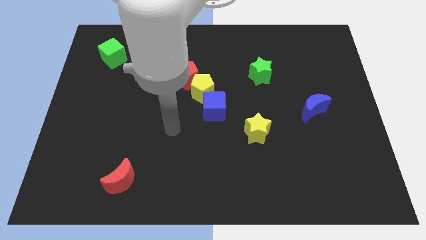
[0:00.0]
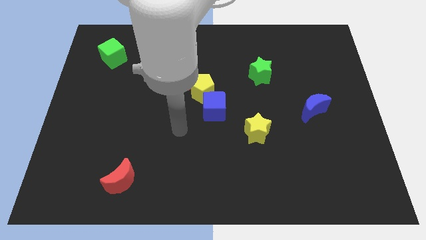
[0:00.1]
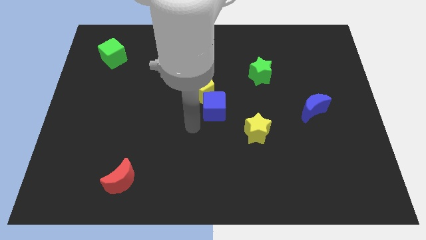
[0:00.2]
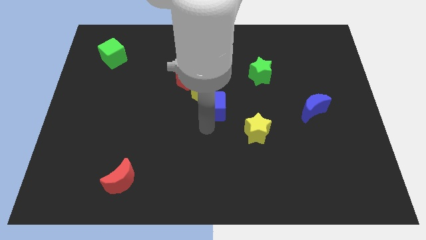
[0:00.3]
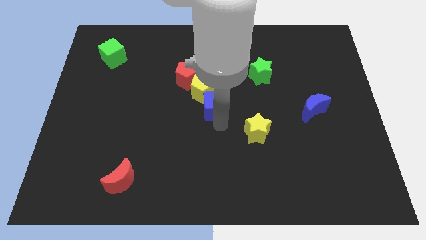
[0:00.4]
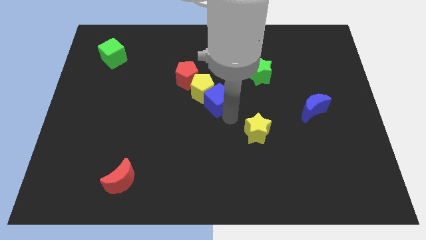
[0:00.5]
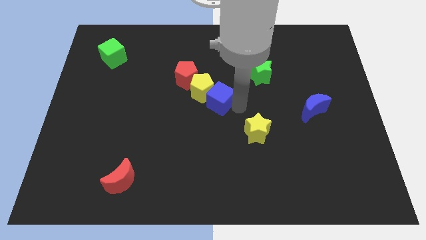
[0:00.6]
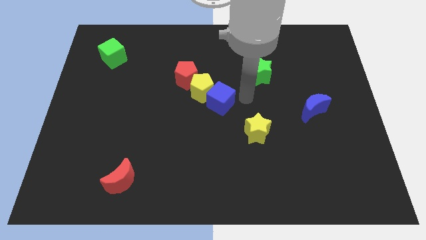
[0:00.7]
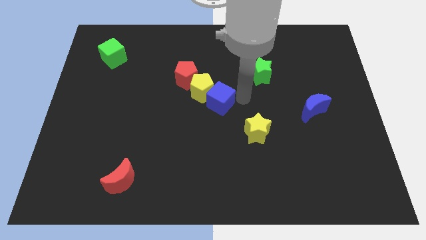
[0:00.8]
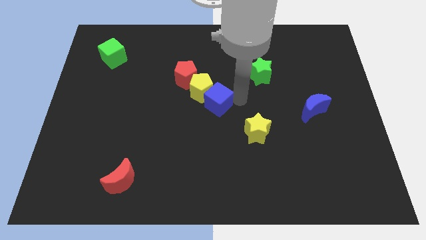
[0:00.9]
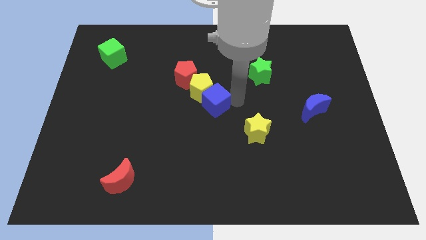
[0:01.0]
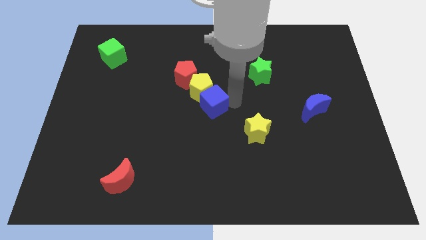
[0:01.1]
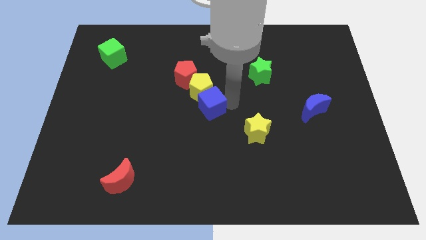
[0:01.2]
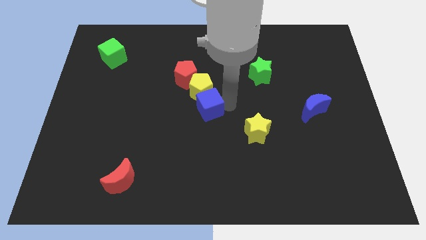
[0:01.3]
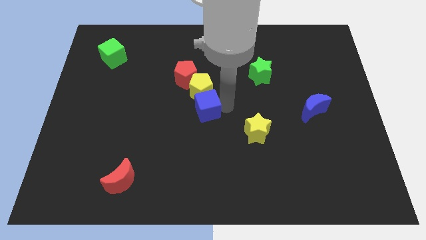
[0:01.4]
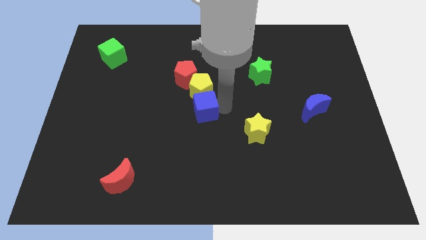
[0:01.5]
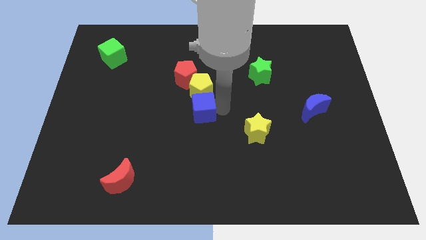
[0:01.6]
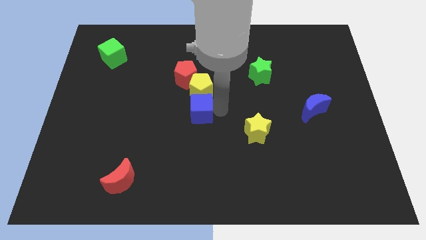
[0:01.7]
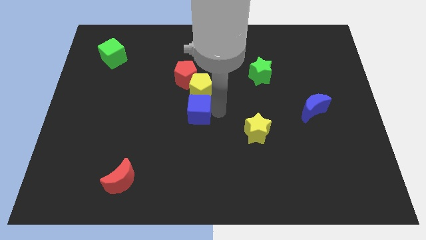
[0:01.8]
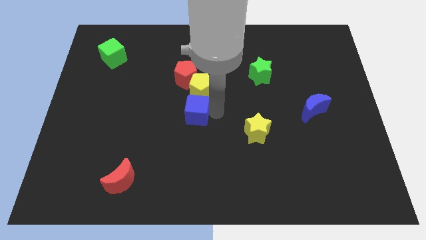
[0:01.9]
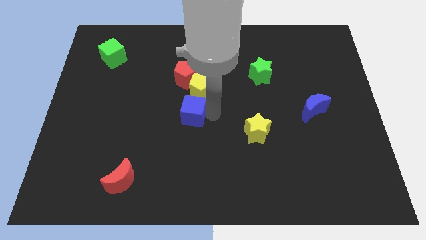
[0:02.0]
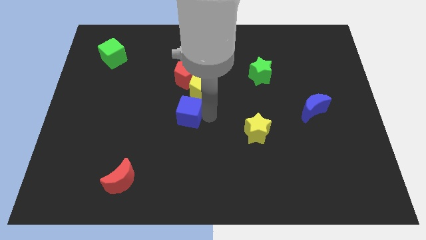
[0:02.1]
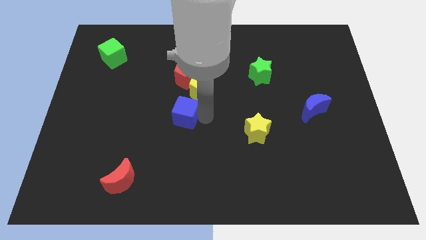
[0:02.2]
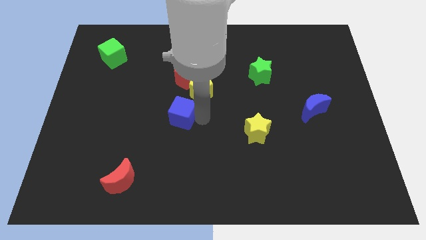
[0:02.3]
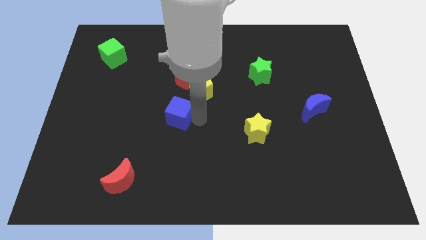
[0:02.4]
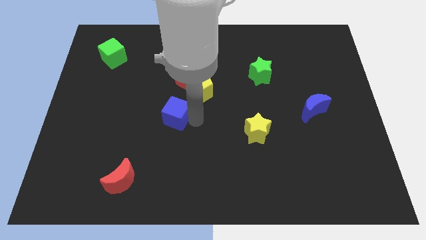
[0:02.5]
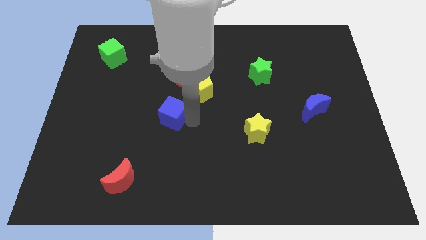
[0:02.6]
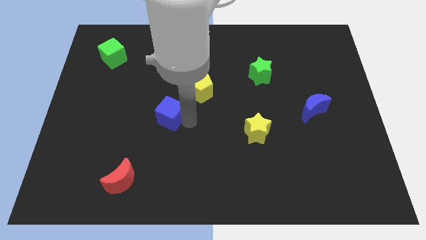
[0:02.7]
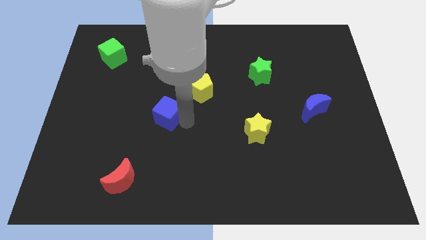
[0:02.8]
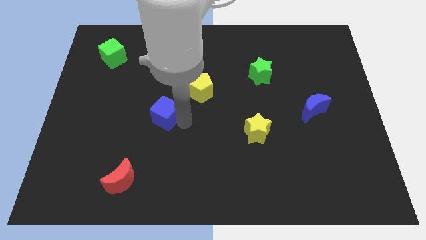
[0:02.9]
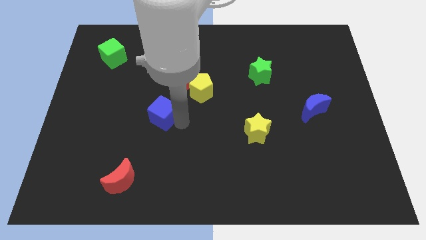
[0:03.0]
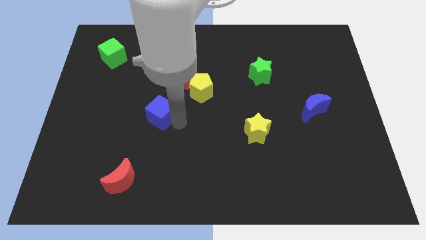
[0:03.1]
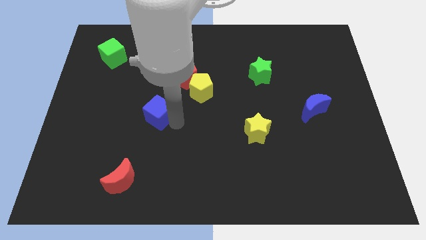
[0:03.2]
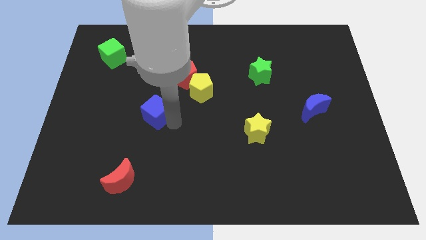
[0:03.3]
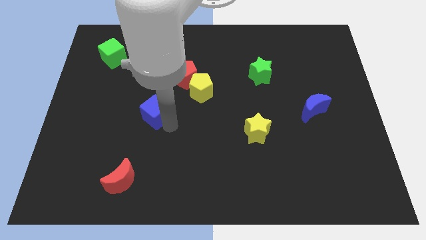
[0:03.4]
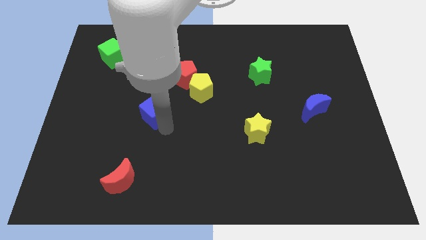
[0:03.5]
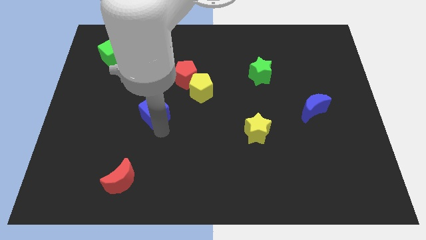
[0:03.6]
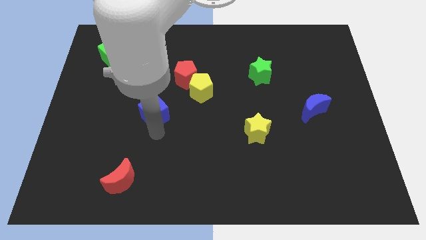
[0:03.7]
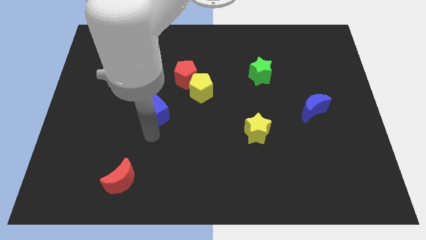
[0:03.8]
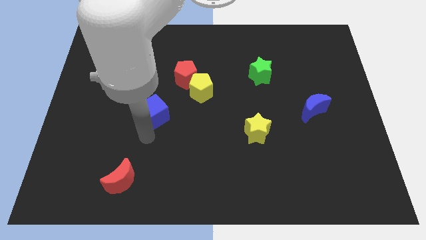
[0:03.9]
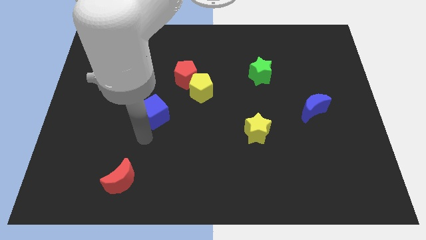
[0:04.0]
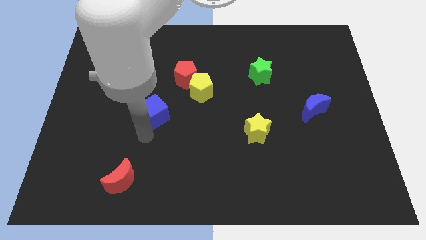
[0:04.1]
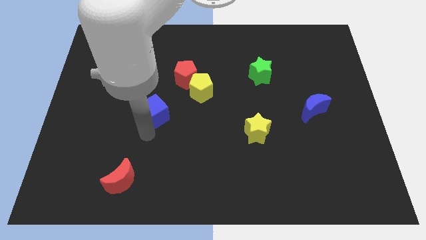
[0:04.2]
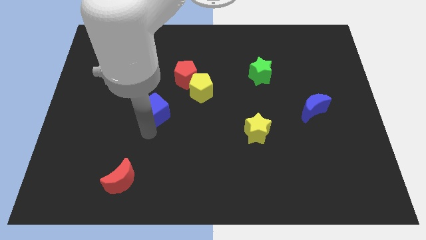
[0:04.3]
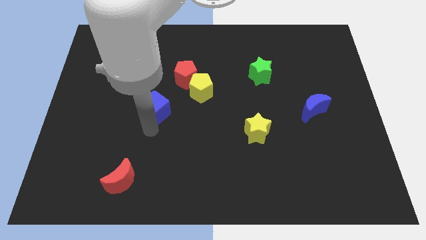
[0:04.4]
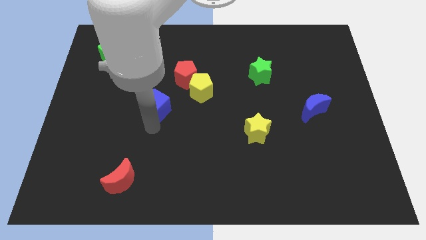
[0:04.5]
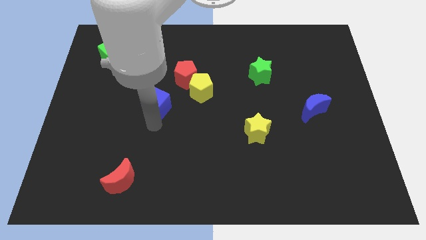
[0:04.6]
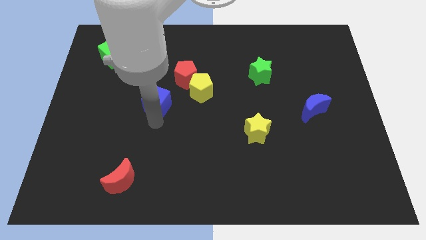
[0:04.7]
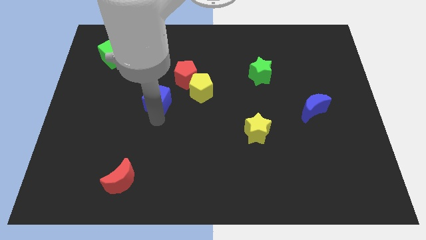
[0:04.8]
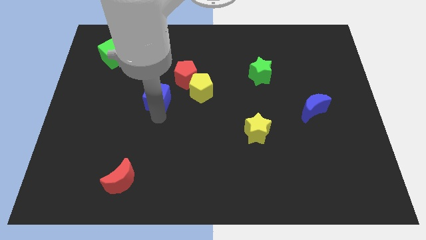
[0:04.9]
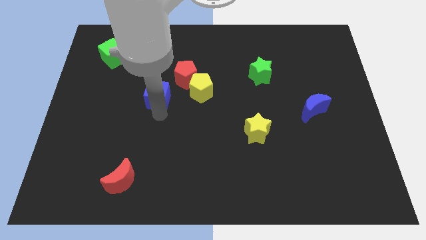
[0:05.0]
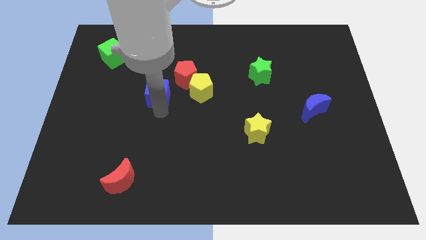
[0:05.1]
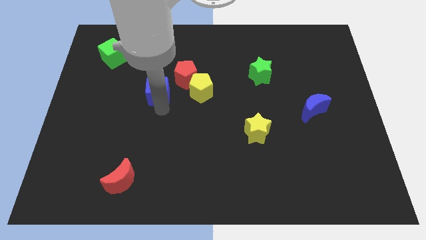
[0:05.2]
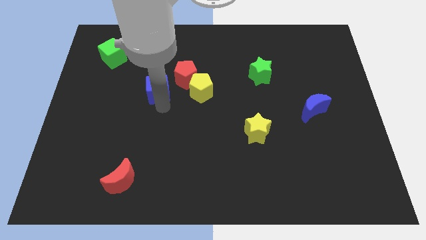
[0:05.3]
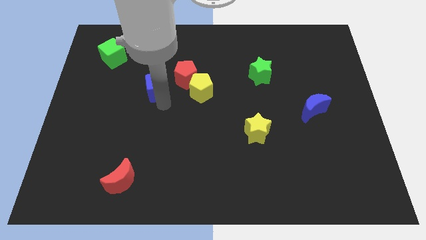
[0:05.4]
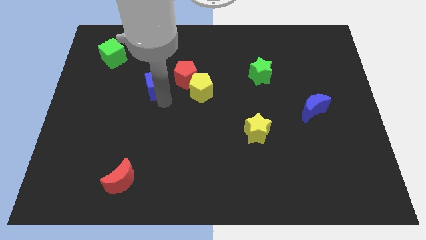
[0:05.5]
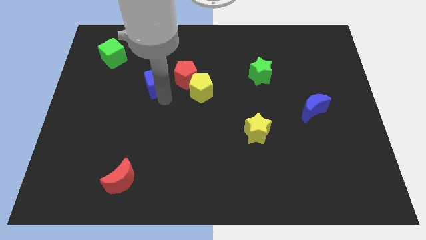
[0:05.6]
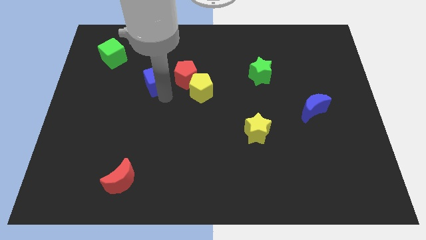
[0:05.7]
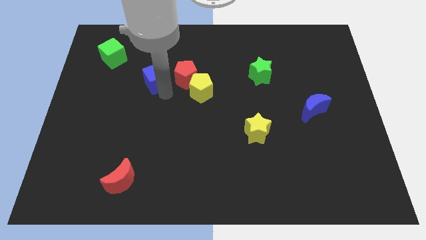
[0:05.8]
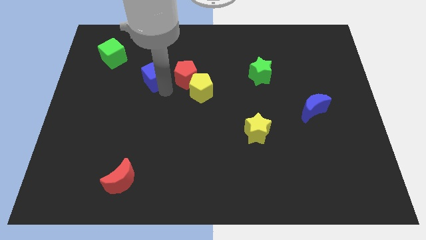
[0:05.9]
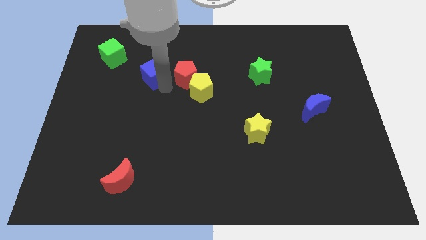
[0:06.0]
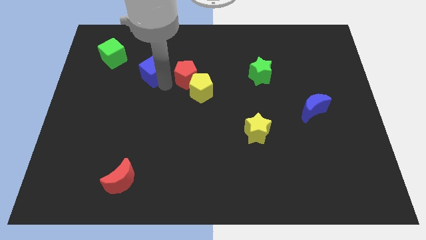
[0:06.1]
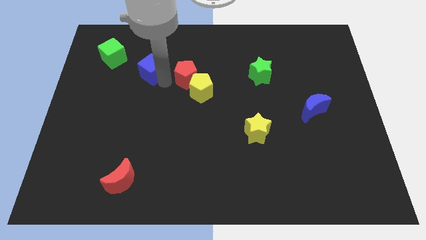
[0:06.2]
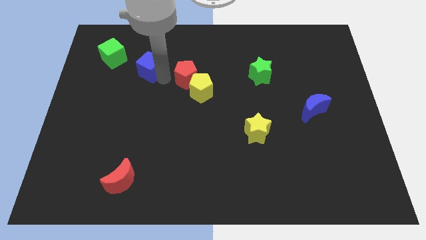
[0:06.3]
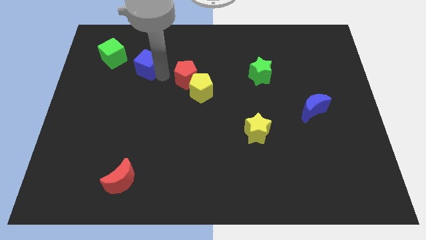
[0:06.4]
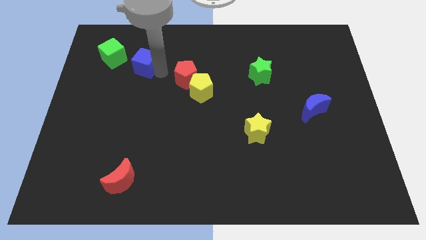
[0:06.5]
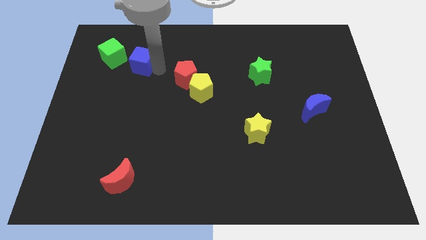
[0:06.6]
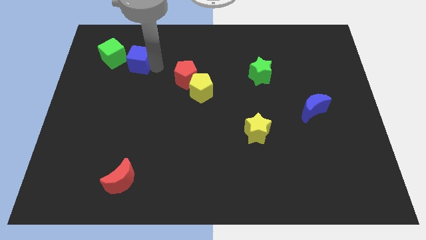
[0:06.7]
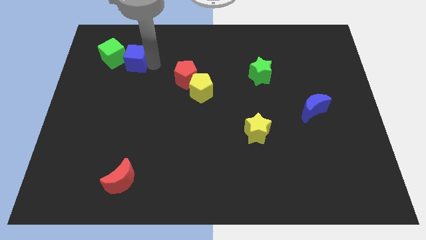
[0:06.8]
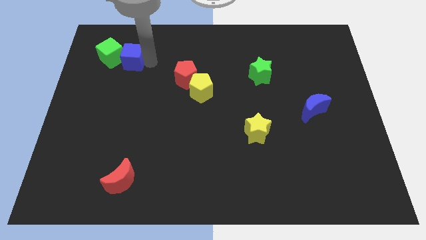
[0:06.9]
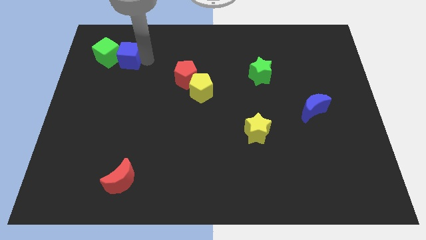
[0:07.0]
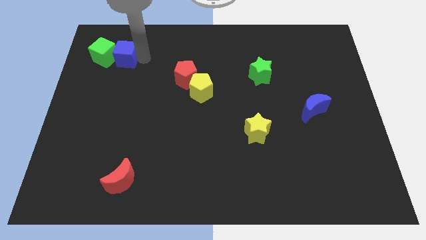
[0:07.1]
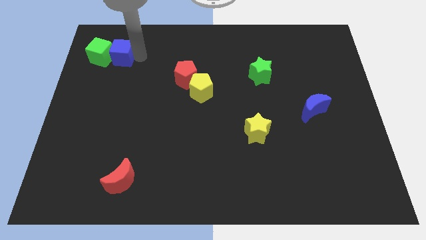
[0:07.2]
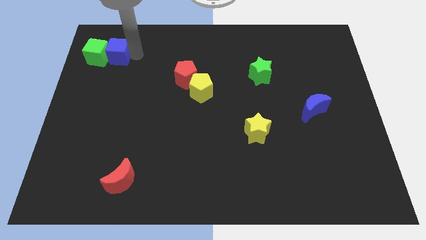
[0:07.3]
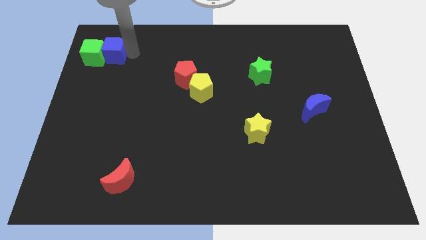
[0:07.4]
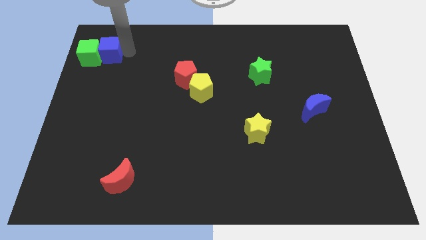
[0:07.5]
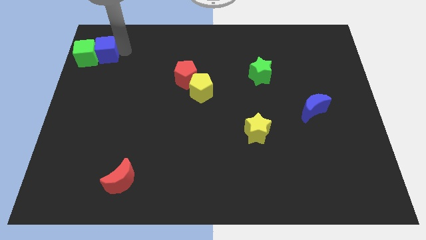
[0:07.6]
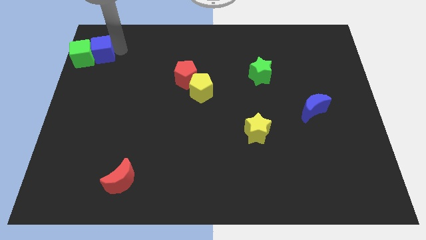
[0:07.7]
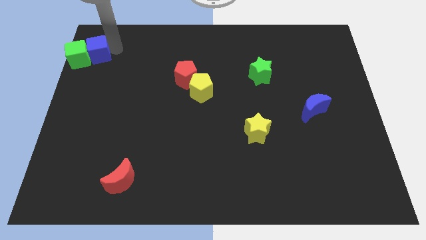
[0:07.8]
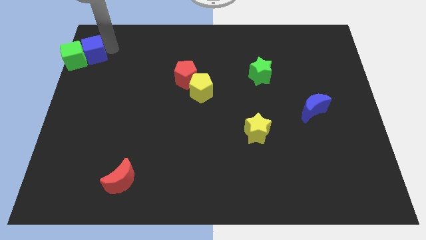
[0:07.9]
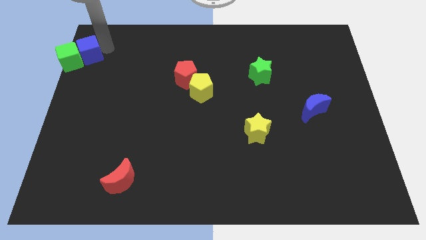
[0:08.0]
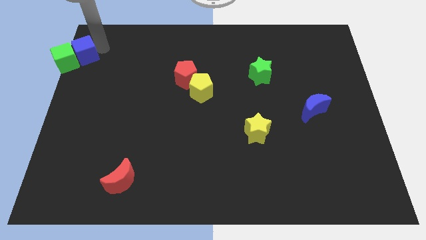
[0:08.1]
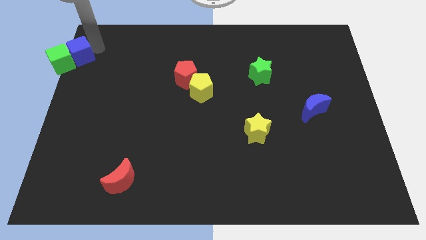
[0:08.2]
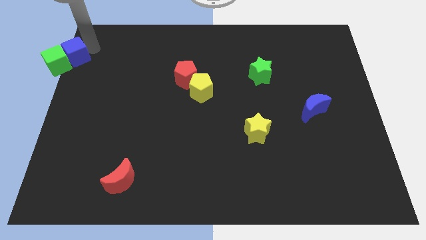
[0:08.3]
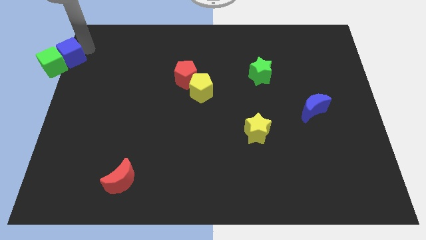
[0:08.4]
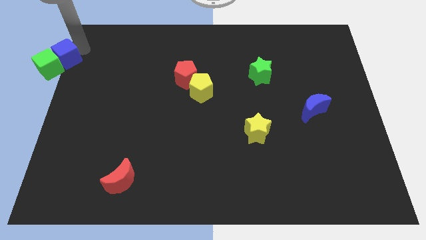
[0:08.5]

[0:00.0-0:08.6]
push the blue cube to the center left
